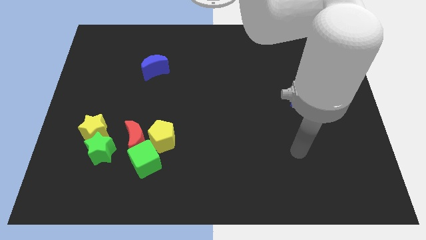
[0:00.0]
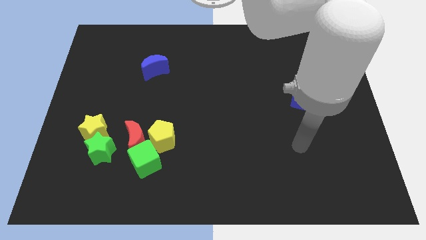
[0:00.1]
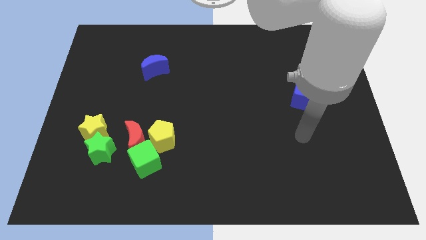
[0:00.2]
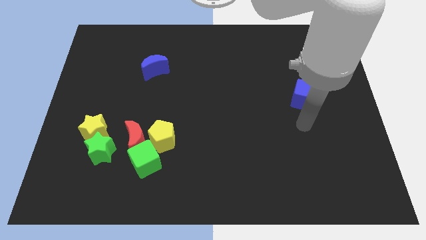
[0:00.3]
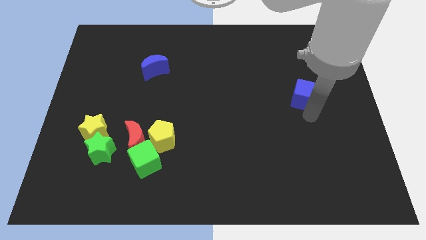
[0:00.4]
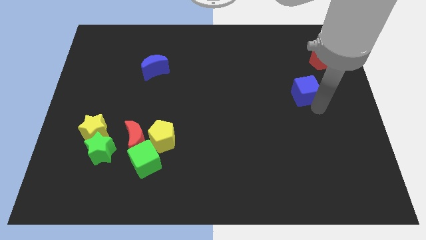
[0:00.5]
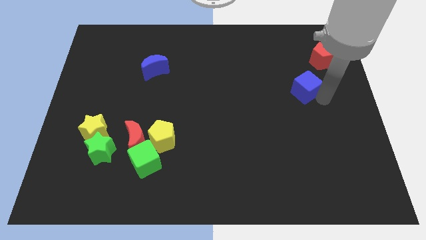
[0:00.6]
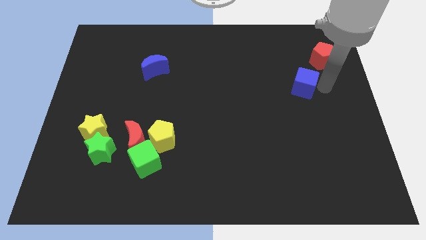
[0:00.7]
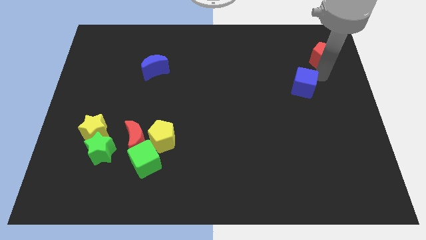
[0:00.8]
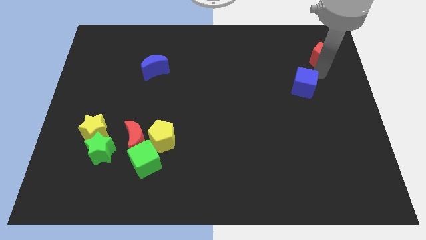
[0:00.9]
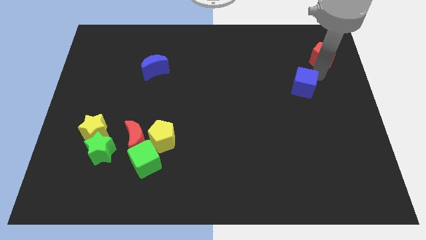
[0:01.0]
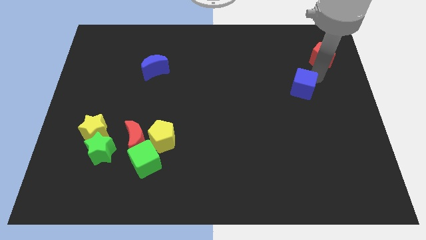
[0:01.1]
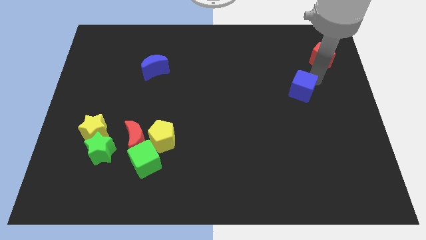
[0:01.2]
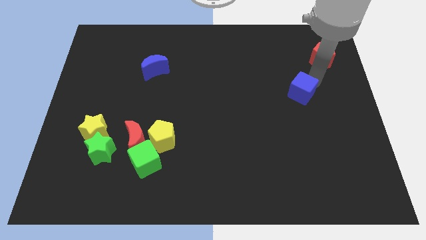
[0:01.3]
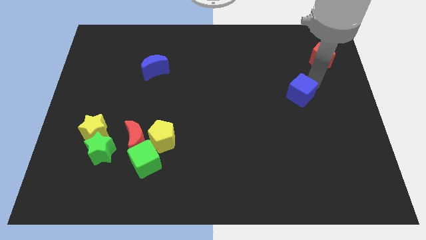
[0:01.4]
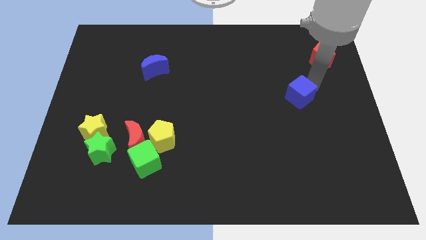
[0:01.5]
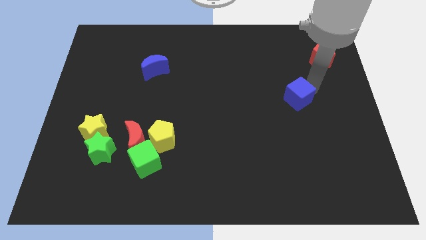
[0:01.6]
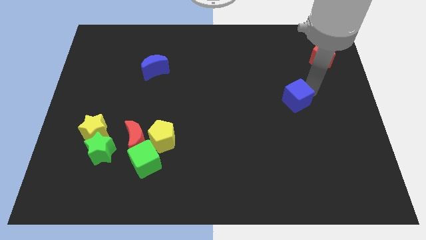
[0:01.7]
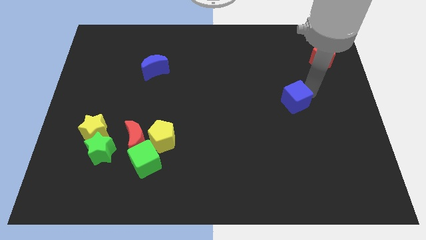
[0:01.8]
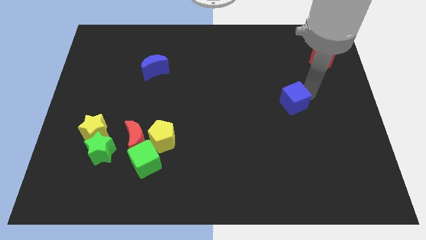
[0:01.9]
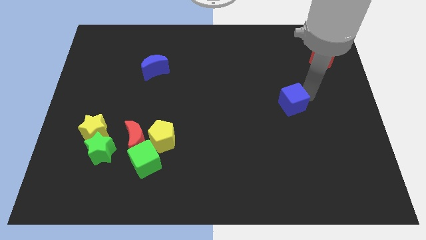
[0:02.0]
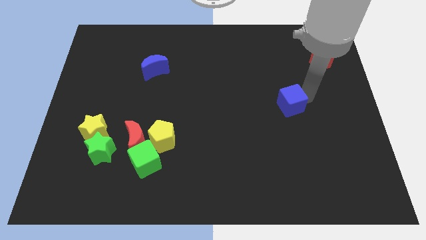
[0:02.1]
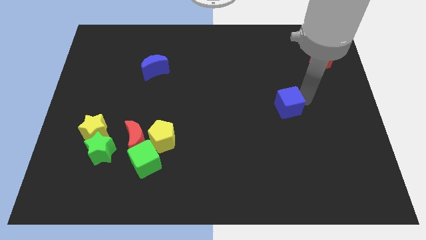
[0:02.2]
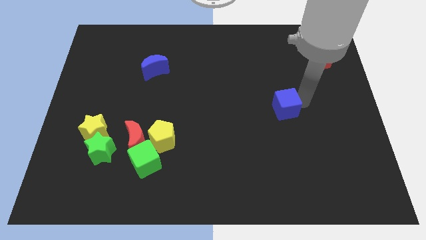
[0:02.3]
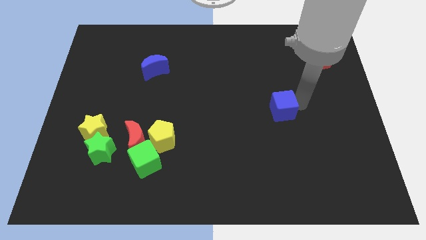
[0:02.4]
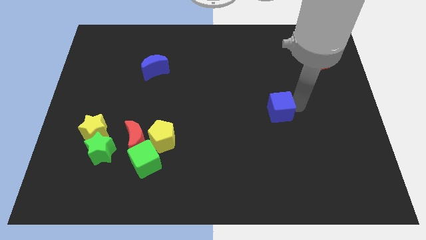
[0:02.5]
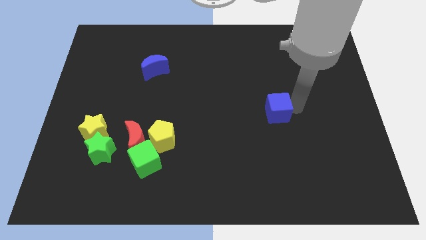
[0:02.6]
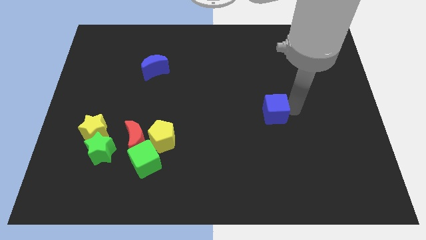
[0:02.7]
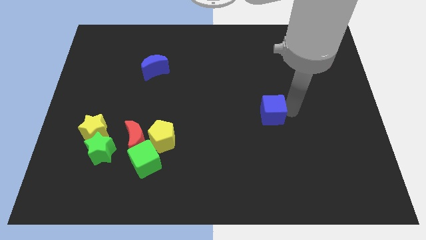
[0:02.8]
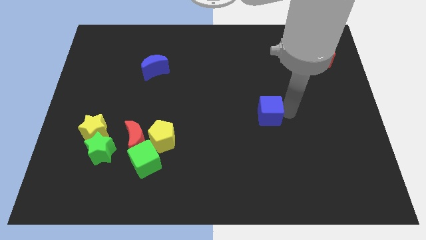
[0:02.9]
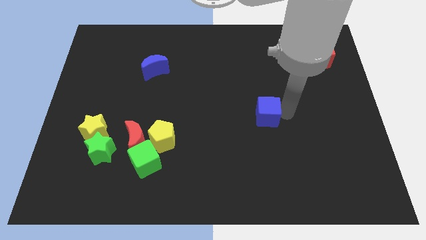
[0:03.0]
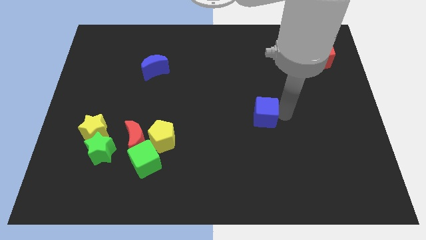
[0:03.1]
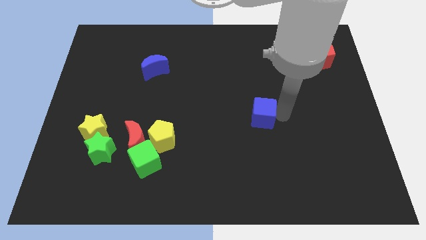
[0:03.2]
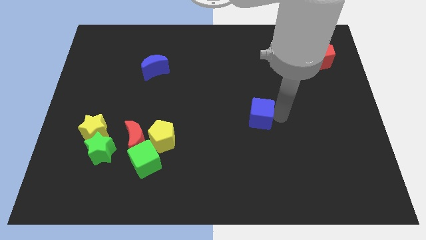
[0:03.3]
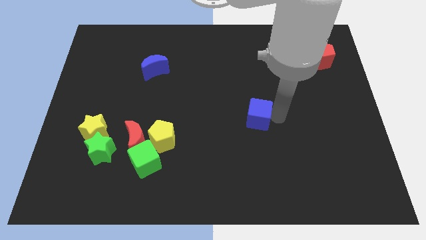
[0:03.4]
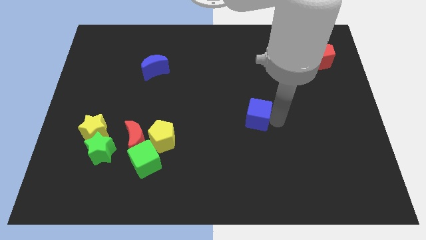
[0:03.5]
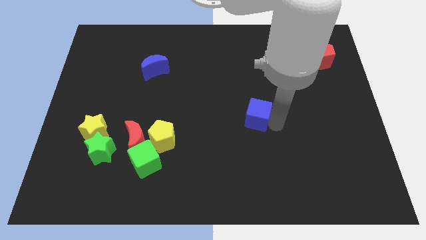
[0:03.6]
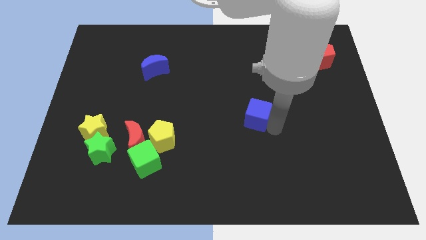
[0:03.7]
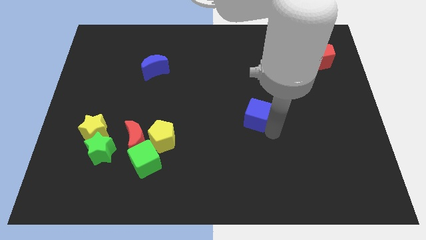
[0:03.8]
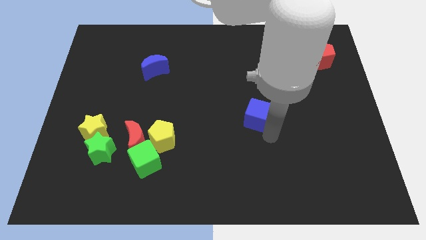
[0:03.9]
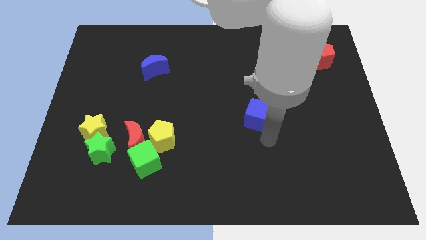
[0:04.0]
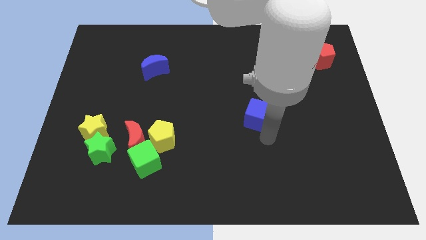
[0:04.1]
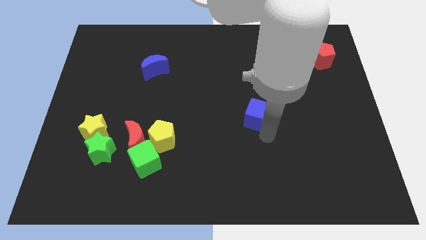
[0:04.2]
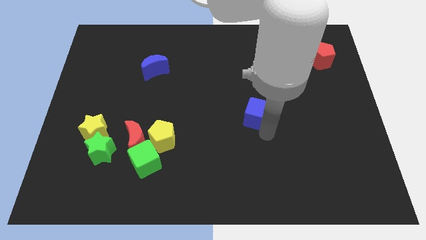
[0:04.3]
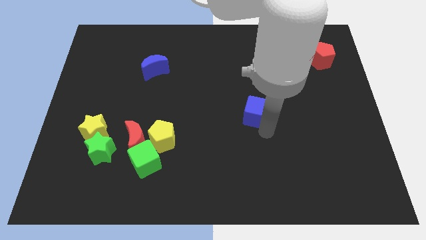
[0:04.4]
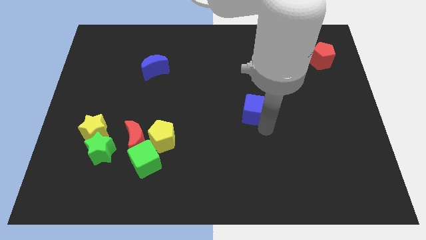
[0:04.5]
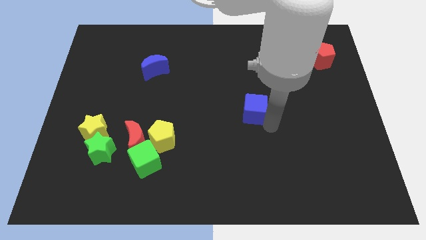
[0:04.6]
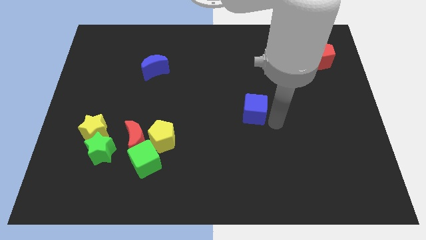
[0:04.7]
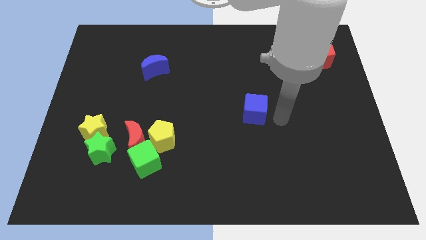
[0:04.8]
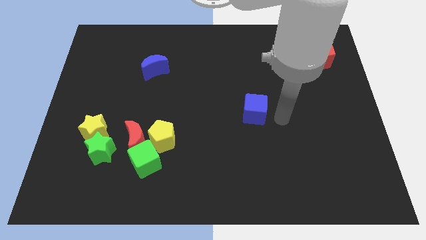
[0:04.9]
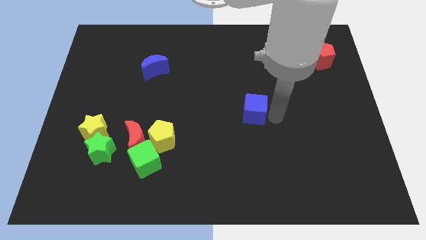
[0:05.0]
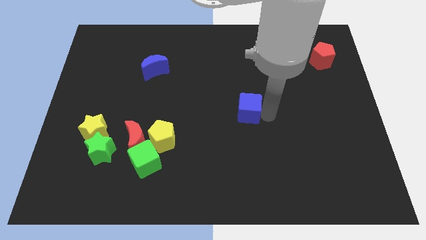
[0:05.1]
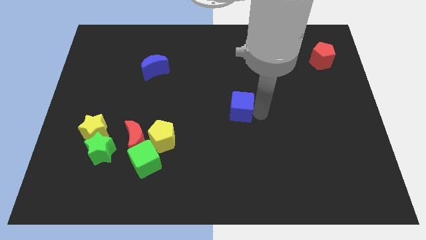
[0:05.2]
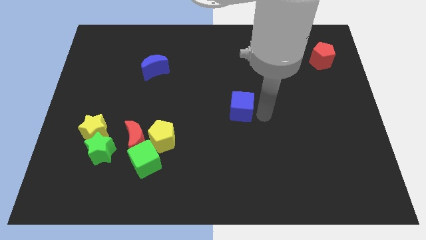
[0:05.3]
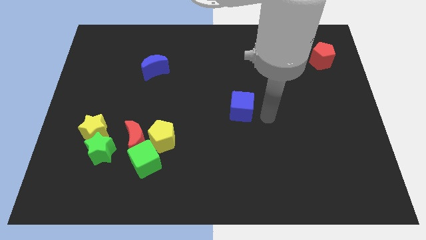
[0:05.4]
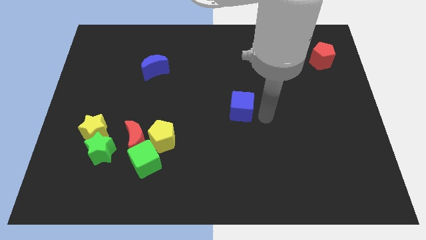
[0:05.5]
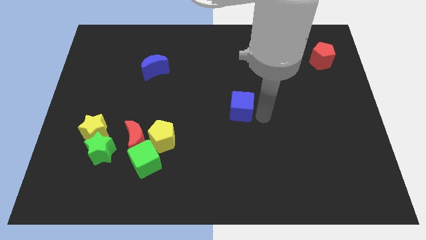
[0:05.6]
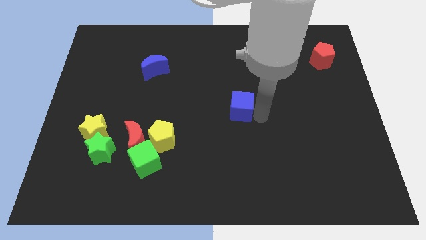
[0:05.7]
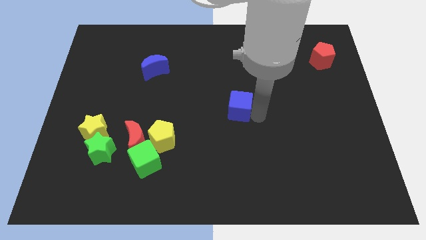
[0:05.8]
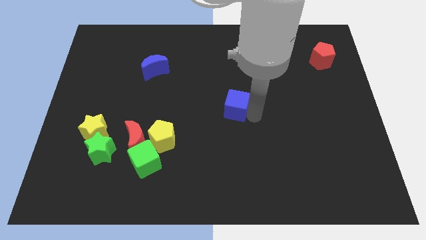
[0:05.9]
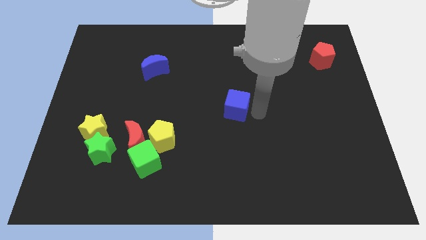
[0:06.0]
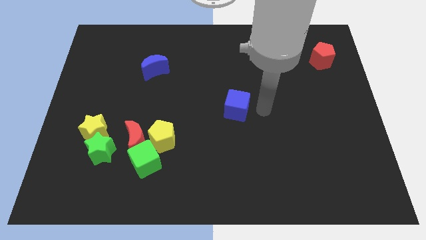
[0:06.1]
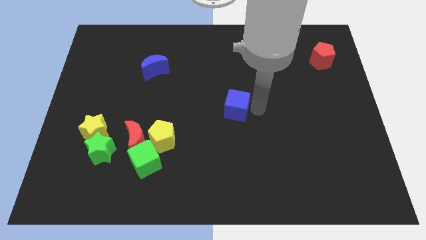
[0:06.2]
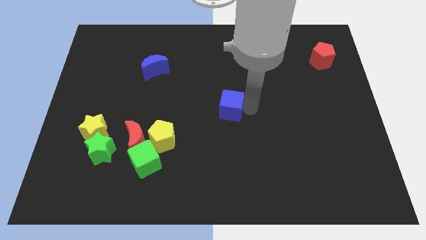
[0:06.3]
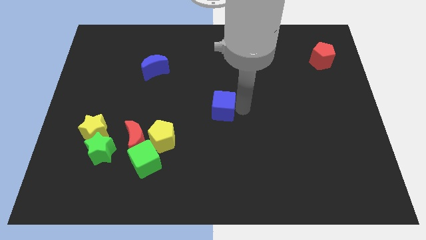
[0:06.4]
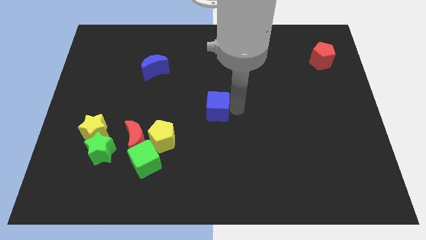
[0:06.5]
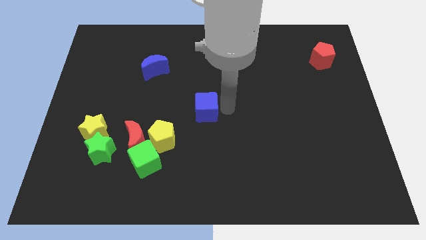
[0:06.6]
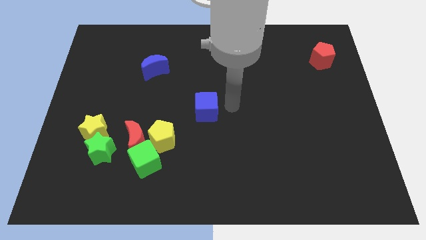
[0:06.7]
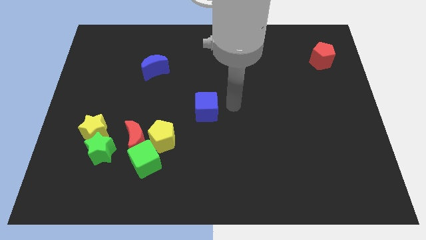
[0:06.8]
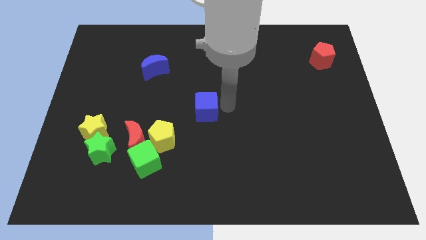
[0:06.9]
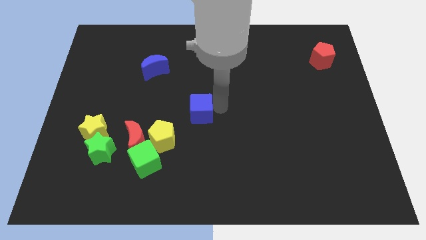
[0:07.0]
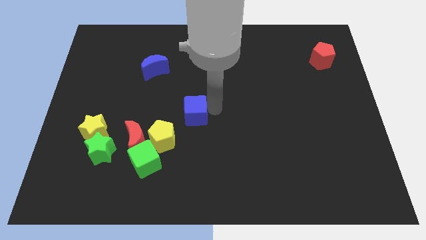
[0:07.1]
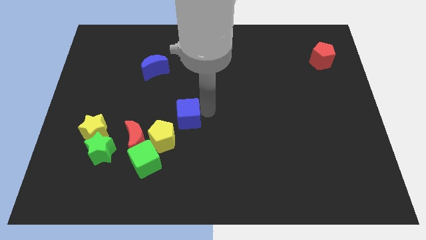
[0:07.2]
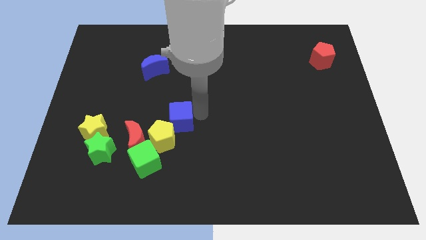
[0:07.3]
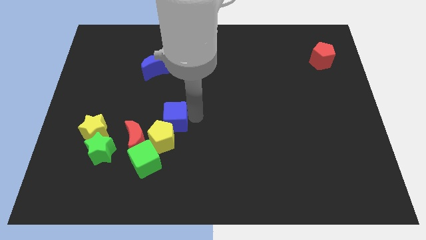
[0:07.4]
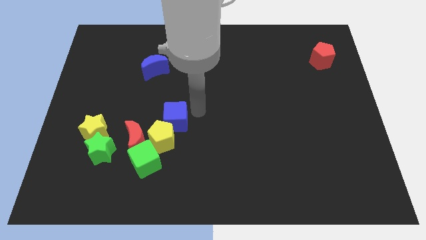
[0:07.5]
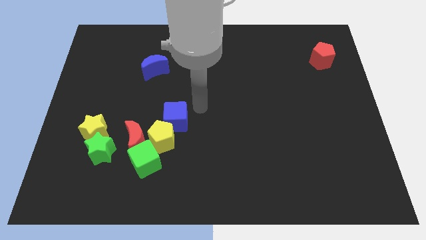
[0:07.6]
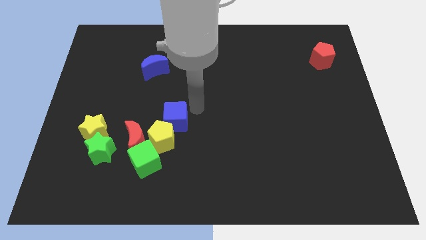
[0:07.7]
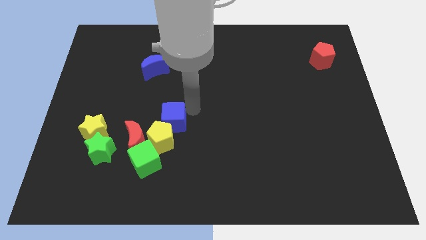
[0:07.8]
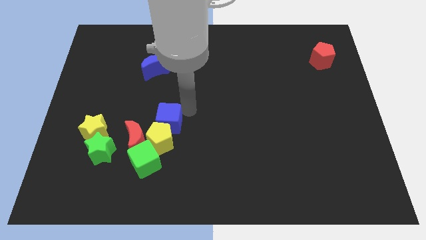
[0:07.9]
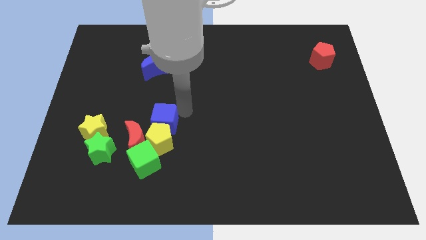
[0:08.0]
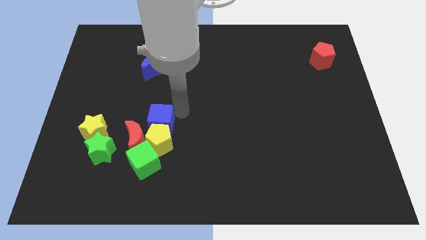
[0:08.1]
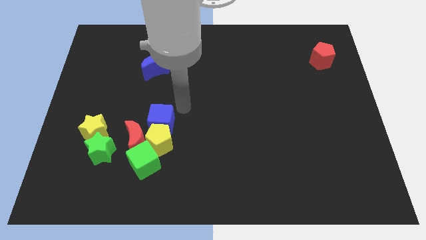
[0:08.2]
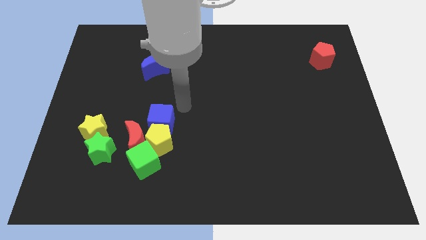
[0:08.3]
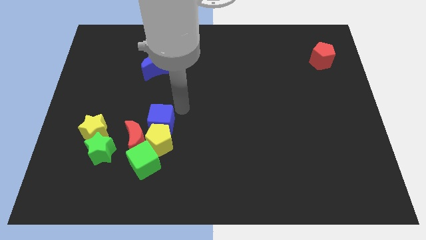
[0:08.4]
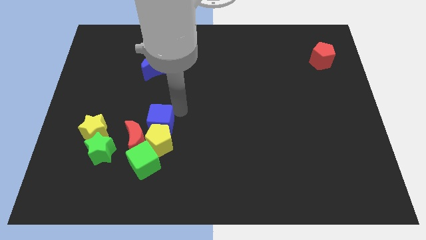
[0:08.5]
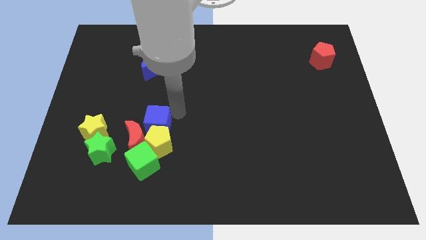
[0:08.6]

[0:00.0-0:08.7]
put the blue cube next to the red moon
